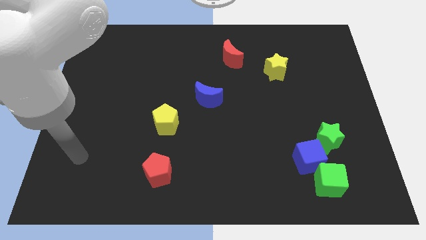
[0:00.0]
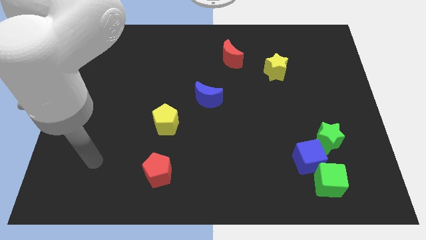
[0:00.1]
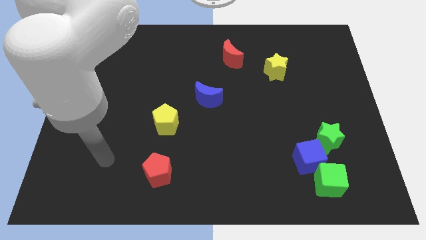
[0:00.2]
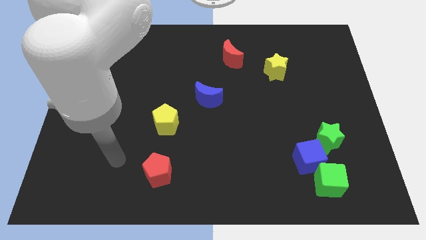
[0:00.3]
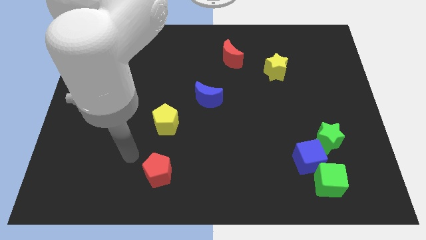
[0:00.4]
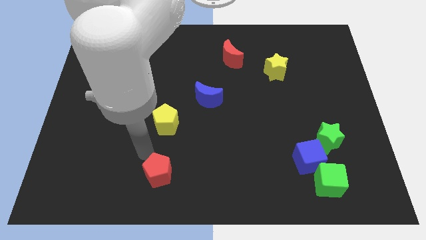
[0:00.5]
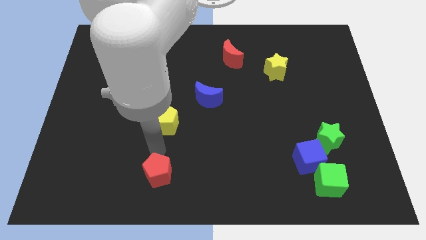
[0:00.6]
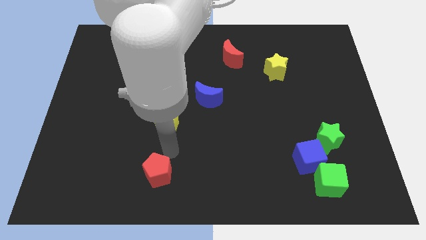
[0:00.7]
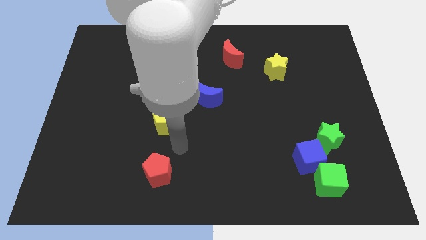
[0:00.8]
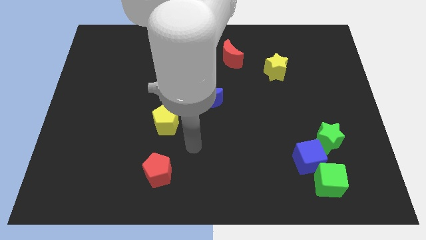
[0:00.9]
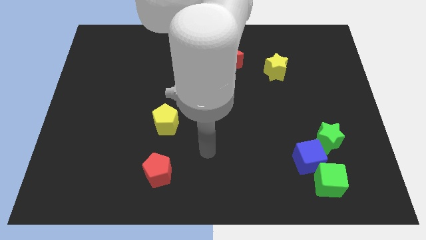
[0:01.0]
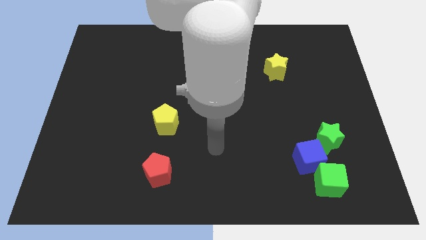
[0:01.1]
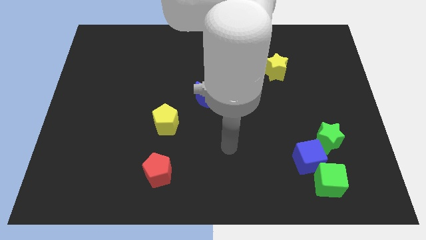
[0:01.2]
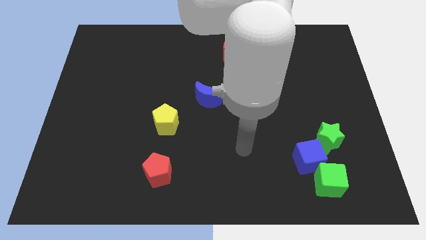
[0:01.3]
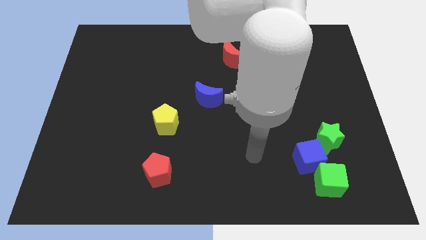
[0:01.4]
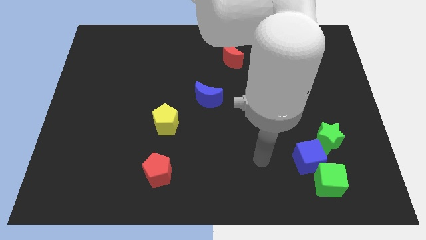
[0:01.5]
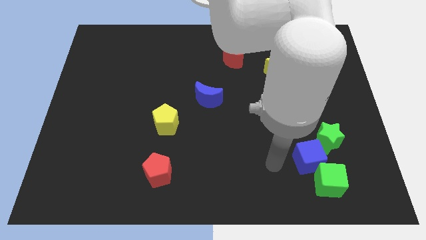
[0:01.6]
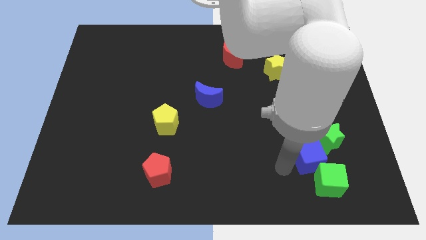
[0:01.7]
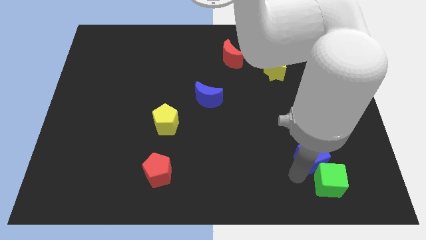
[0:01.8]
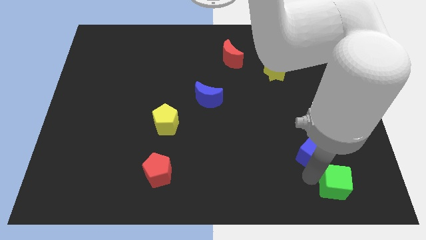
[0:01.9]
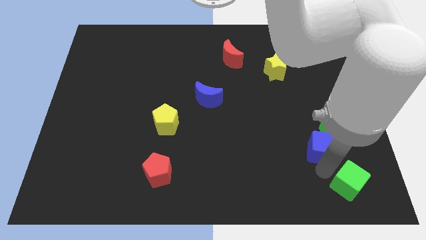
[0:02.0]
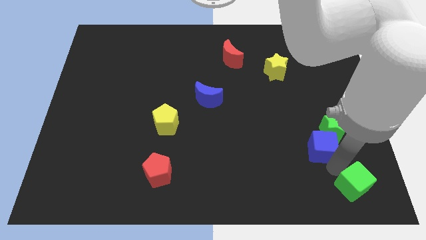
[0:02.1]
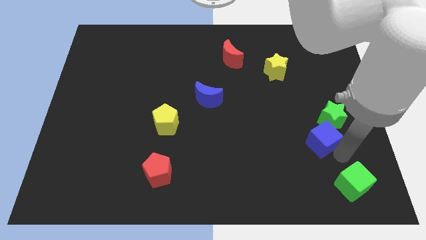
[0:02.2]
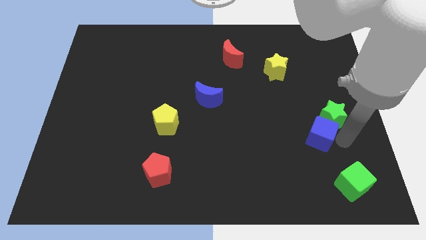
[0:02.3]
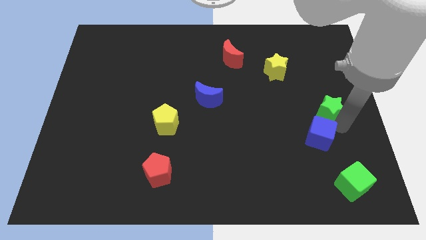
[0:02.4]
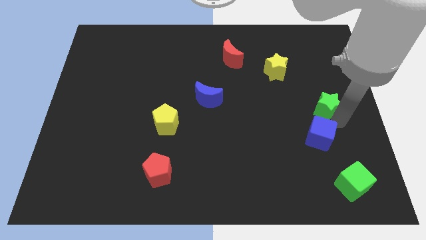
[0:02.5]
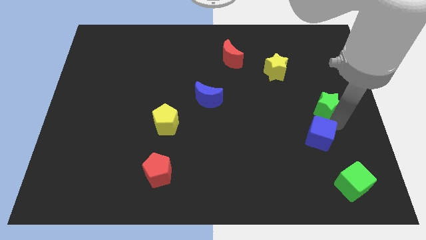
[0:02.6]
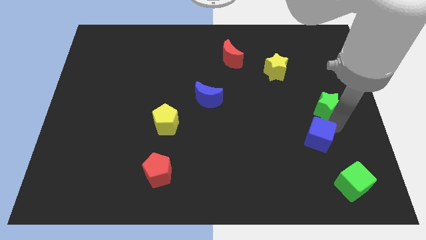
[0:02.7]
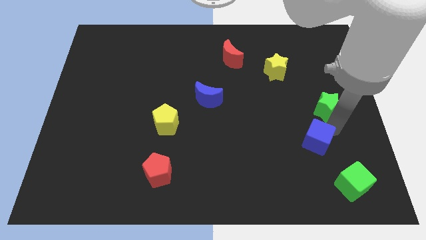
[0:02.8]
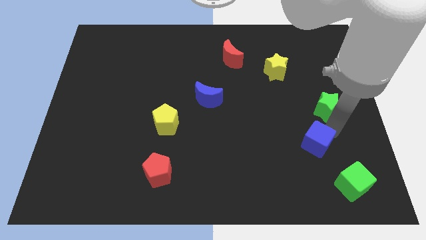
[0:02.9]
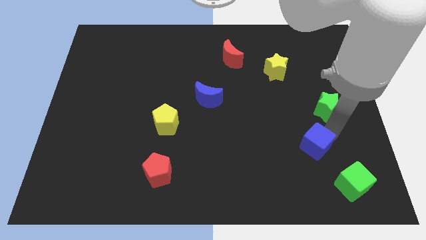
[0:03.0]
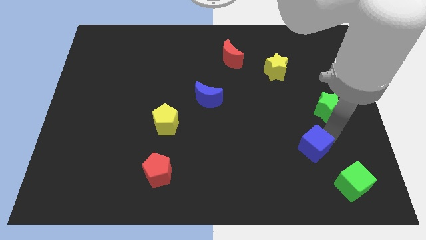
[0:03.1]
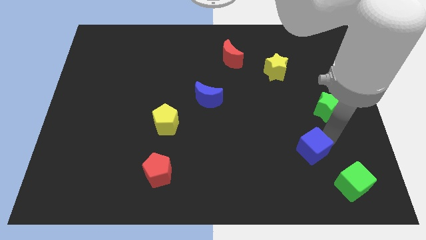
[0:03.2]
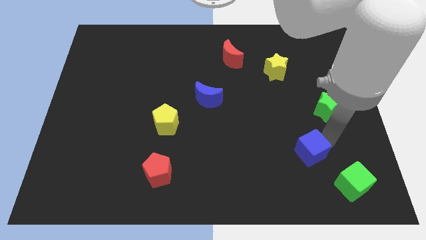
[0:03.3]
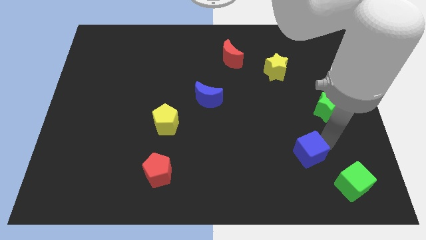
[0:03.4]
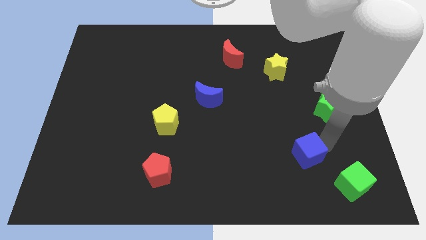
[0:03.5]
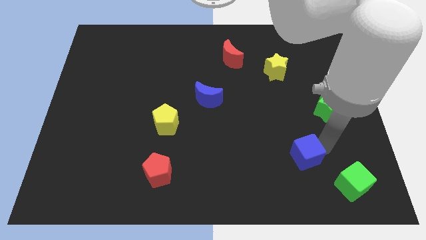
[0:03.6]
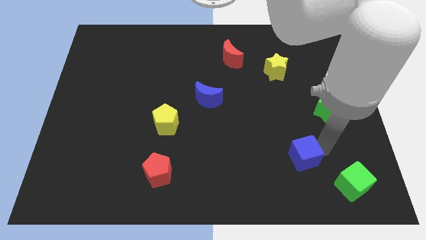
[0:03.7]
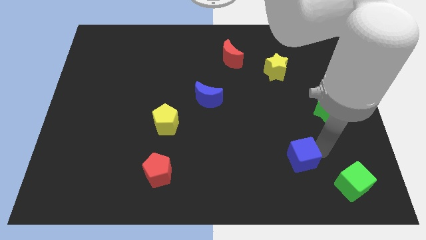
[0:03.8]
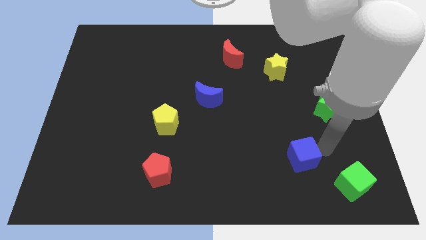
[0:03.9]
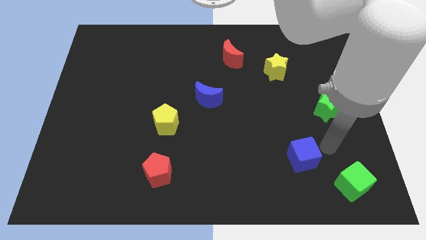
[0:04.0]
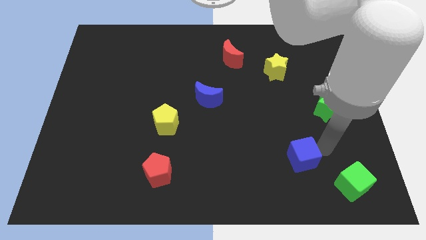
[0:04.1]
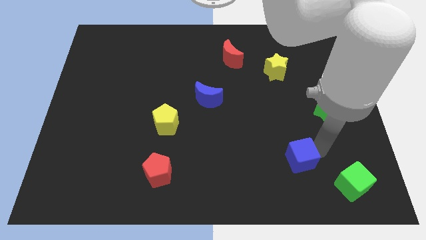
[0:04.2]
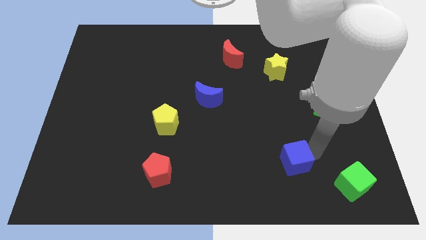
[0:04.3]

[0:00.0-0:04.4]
move the blue cube away from the green cube and green star

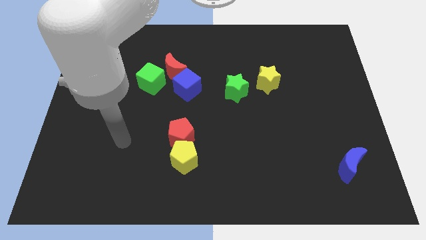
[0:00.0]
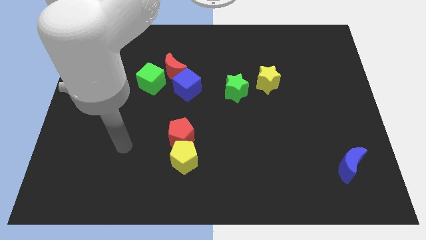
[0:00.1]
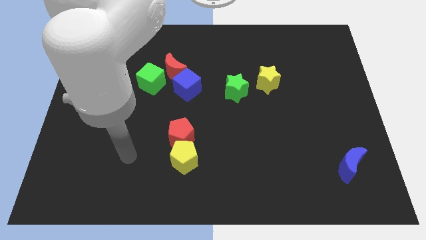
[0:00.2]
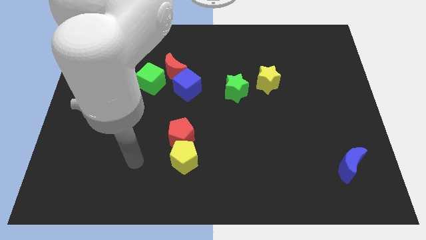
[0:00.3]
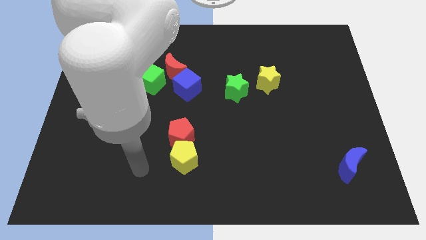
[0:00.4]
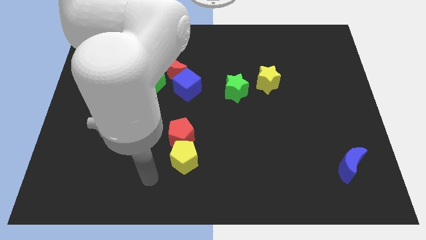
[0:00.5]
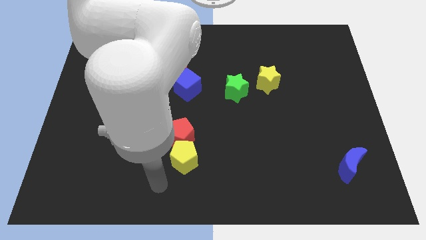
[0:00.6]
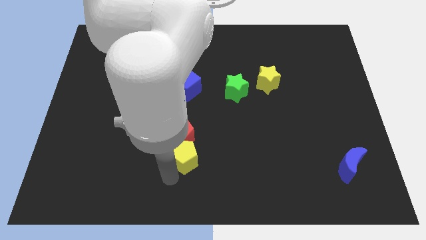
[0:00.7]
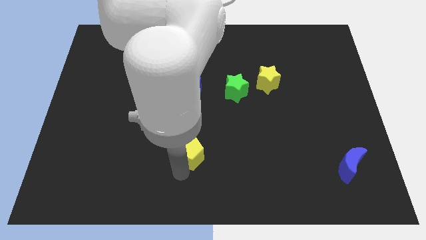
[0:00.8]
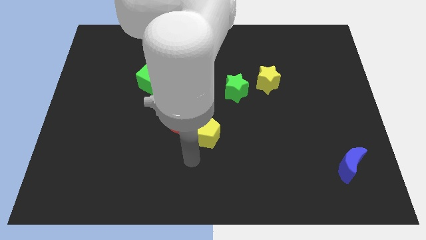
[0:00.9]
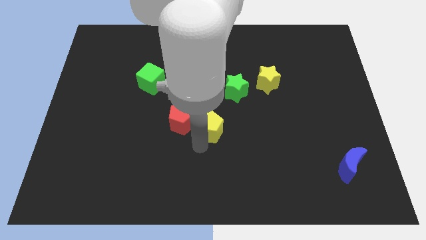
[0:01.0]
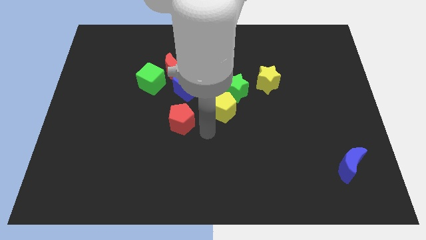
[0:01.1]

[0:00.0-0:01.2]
separate the red pentagon from the yellow pentagon

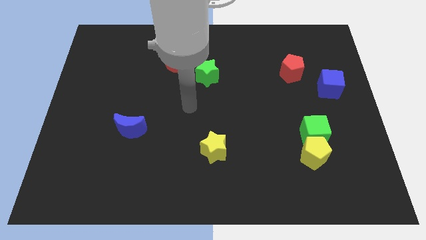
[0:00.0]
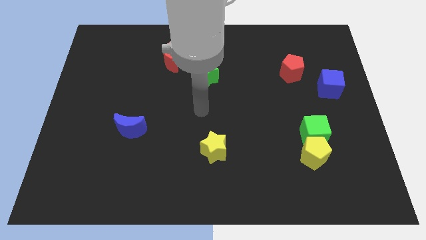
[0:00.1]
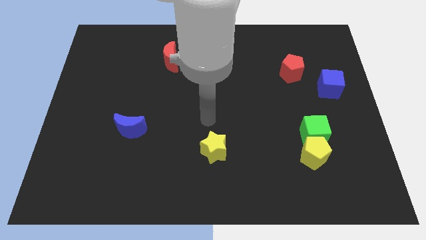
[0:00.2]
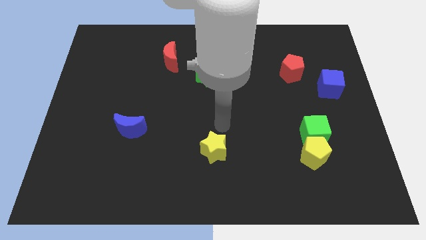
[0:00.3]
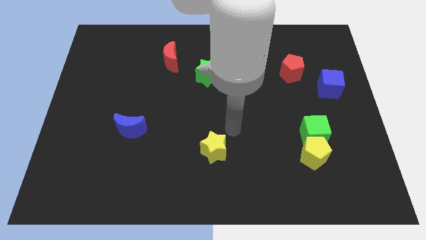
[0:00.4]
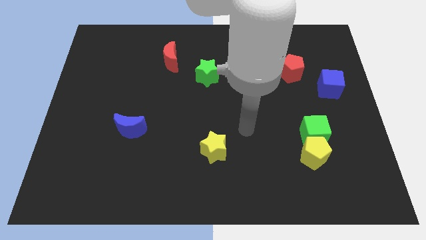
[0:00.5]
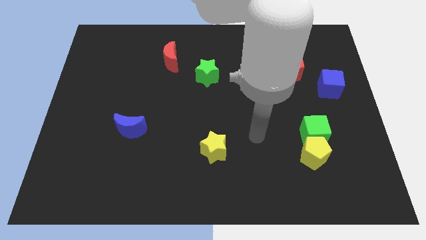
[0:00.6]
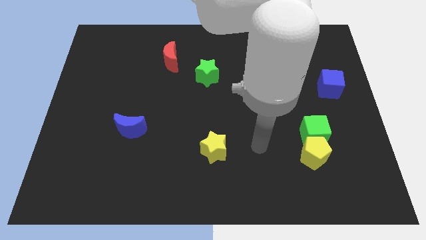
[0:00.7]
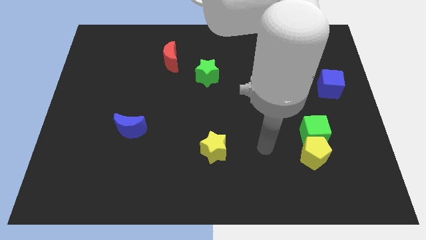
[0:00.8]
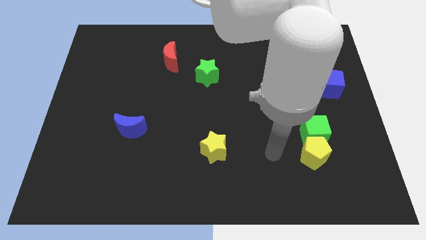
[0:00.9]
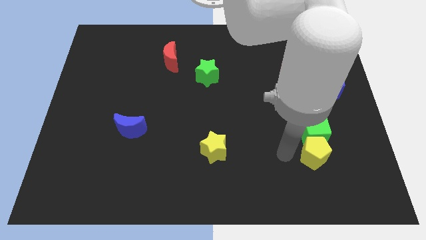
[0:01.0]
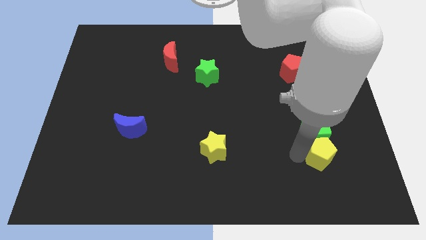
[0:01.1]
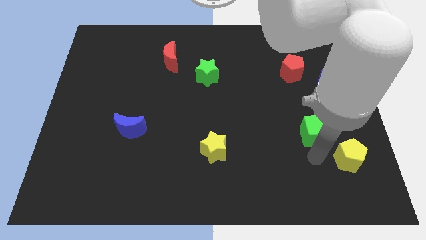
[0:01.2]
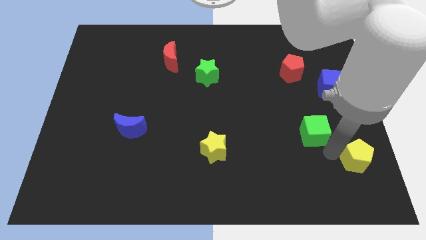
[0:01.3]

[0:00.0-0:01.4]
move the green cube away from the yellow pentagon

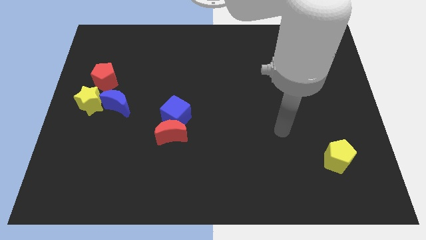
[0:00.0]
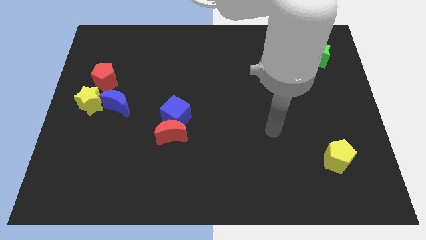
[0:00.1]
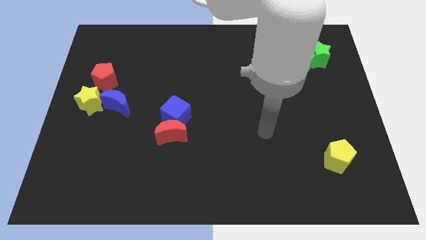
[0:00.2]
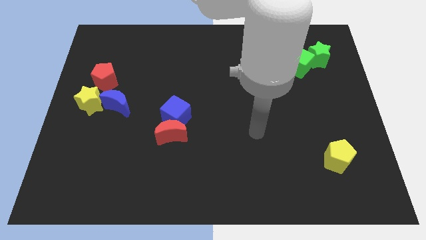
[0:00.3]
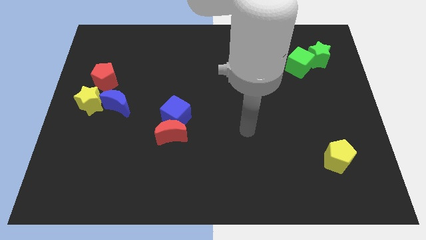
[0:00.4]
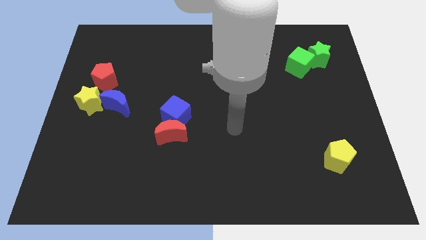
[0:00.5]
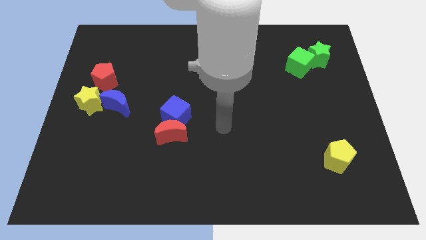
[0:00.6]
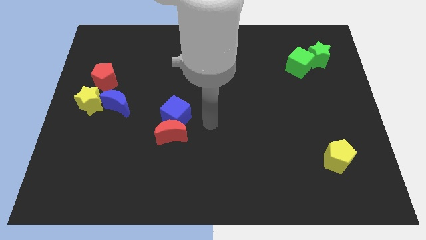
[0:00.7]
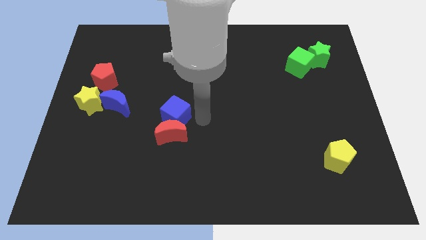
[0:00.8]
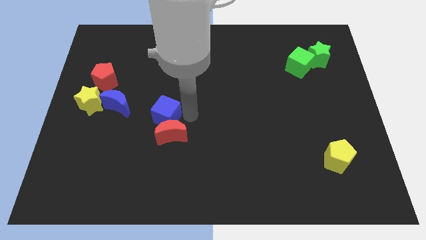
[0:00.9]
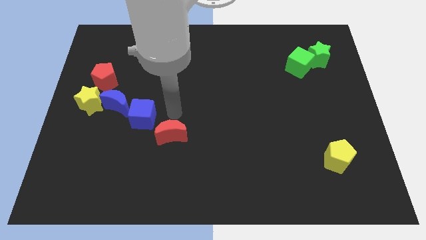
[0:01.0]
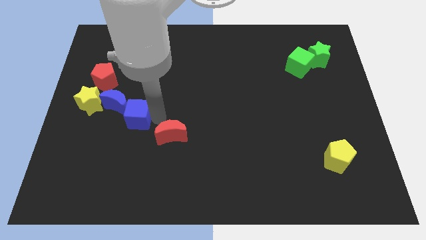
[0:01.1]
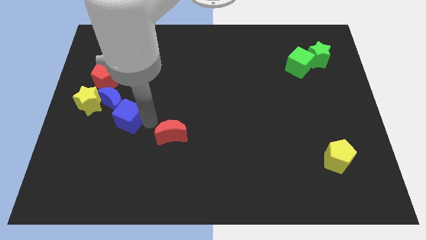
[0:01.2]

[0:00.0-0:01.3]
move the red moon away from the blue cube

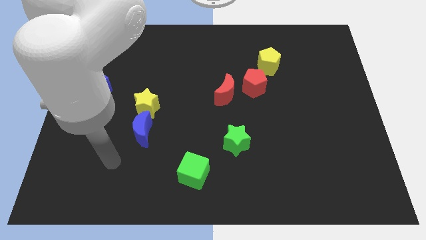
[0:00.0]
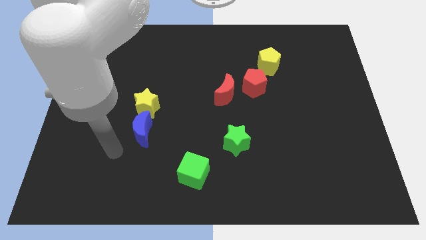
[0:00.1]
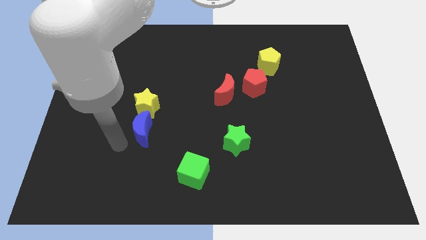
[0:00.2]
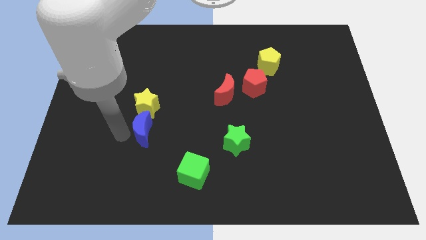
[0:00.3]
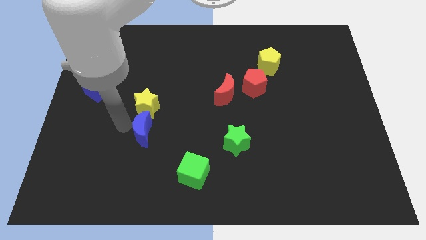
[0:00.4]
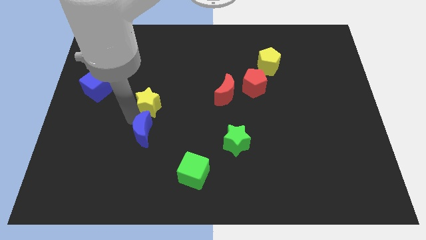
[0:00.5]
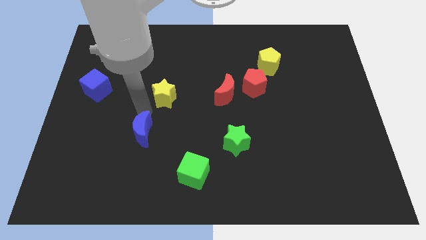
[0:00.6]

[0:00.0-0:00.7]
separate the blue moon from the yellow star

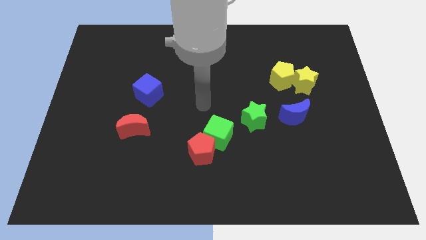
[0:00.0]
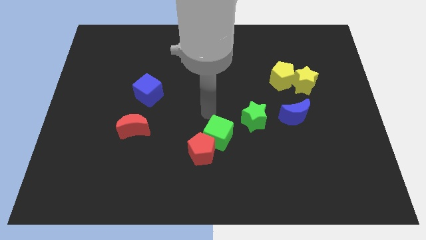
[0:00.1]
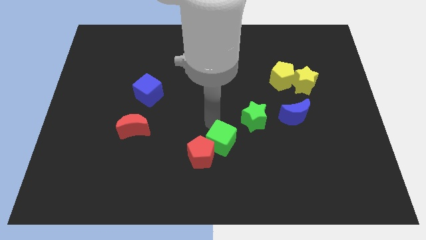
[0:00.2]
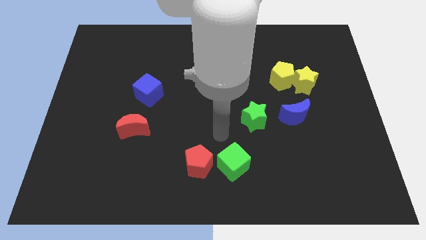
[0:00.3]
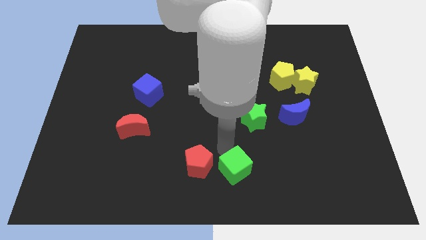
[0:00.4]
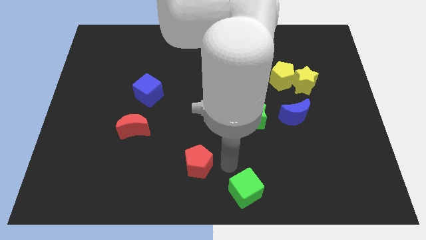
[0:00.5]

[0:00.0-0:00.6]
separate the red pentagon from the green cube
